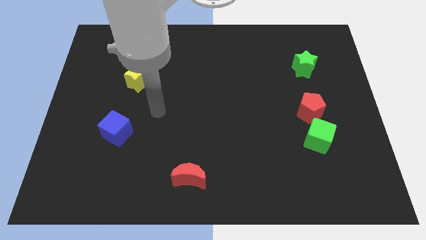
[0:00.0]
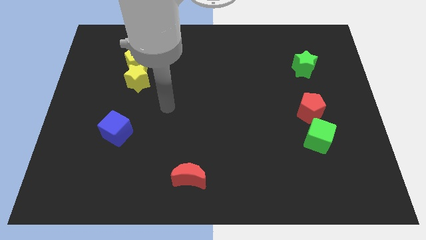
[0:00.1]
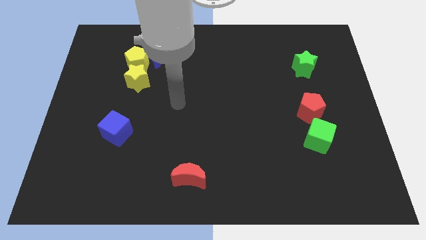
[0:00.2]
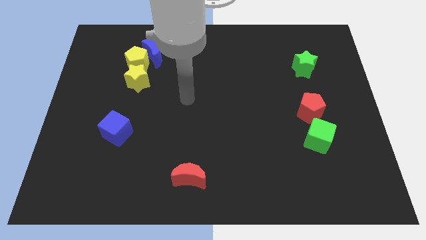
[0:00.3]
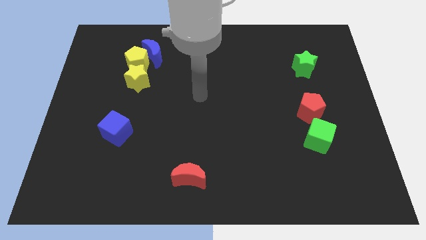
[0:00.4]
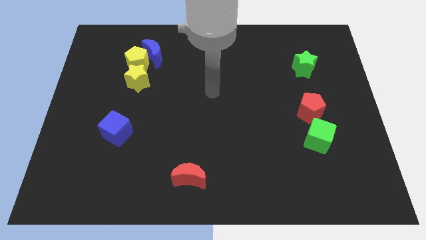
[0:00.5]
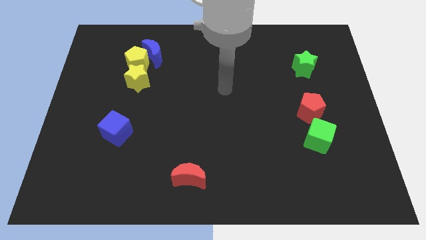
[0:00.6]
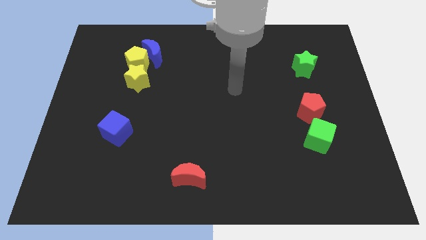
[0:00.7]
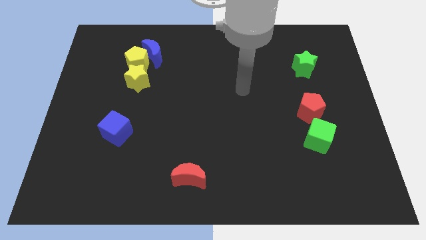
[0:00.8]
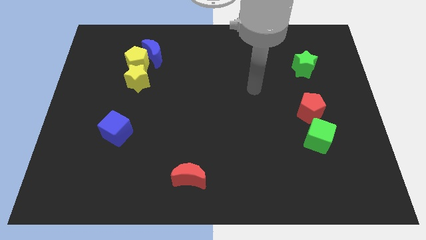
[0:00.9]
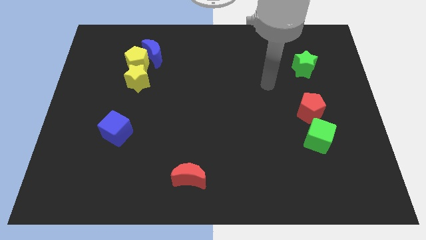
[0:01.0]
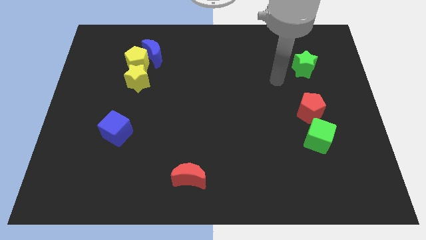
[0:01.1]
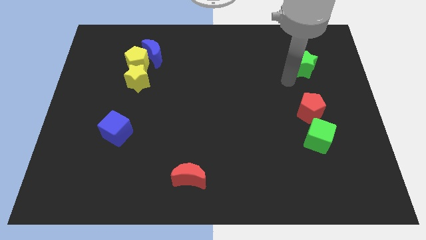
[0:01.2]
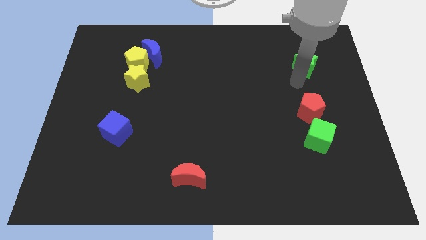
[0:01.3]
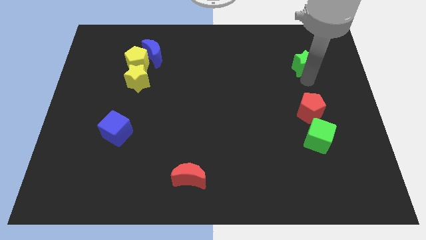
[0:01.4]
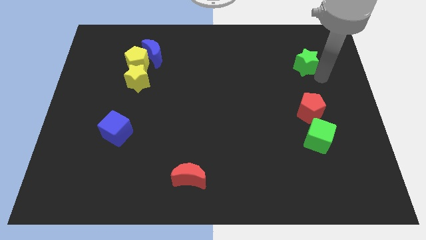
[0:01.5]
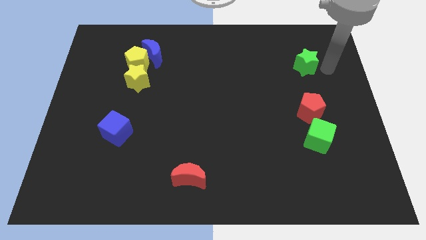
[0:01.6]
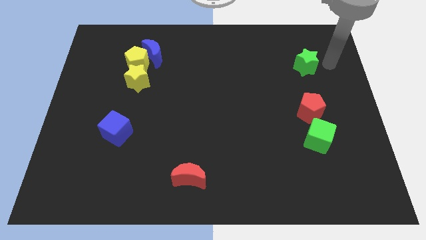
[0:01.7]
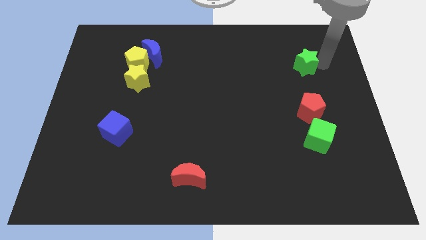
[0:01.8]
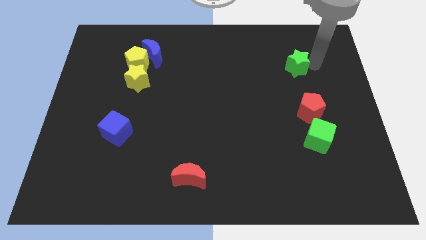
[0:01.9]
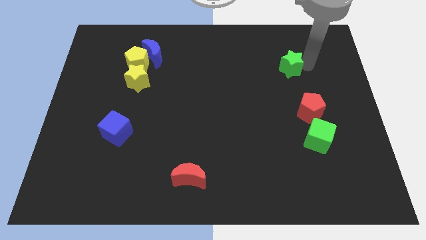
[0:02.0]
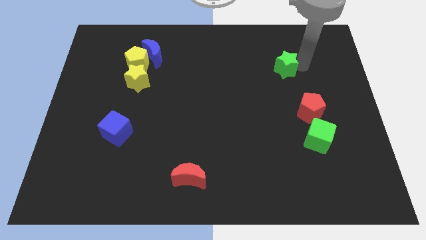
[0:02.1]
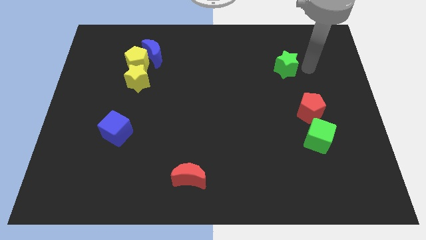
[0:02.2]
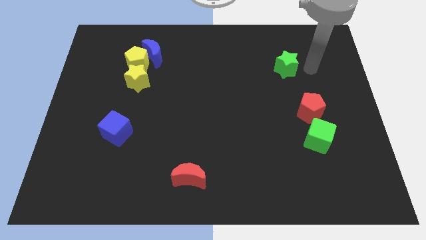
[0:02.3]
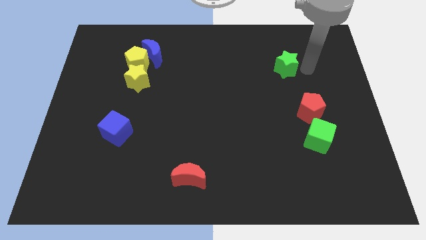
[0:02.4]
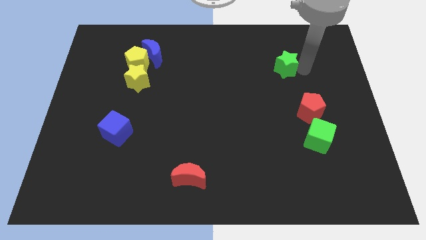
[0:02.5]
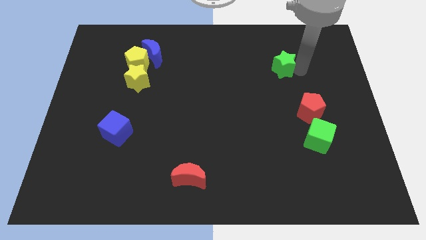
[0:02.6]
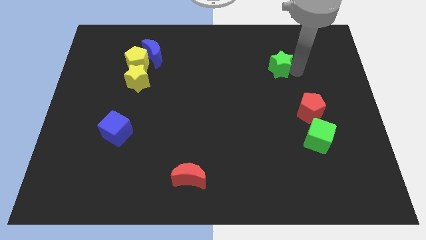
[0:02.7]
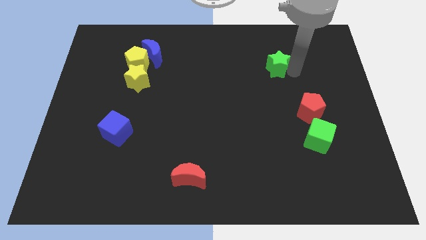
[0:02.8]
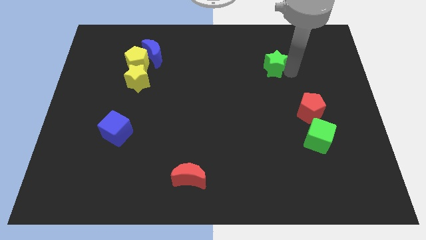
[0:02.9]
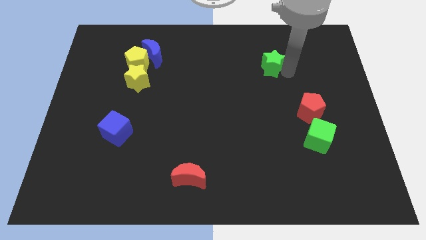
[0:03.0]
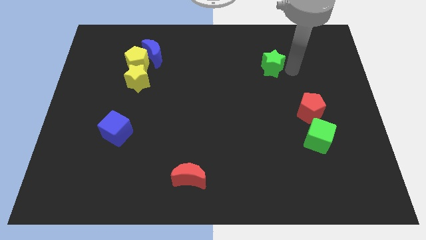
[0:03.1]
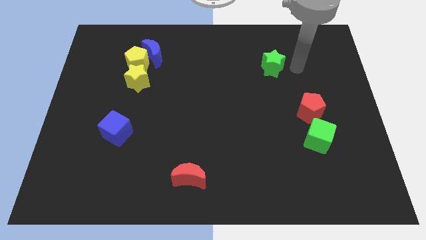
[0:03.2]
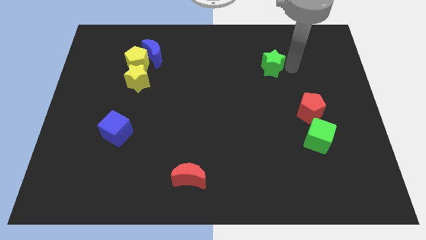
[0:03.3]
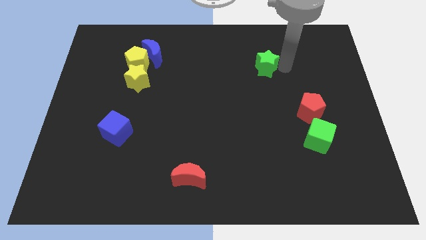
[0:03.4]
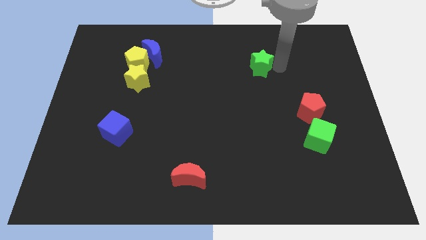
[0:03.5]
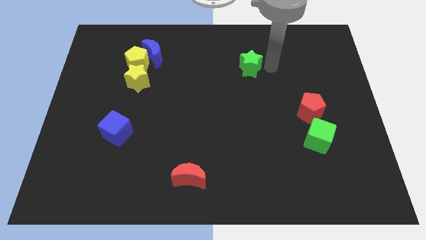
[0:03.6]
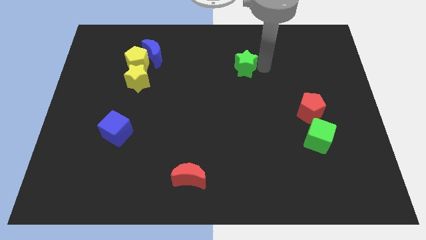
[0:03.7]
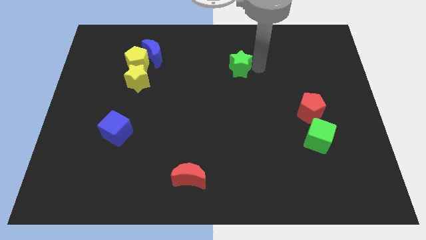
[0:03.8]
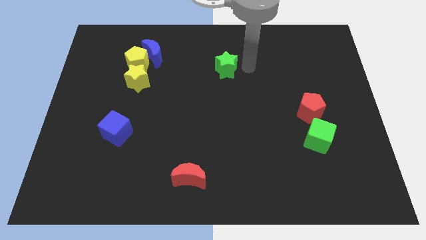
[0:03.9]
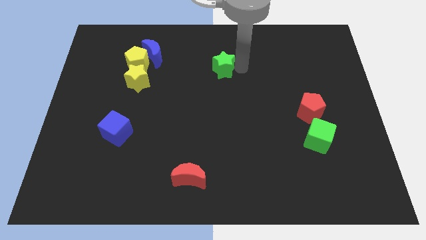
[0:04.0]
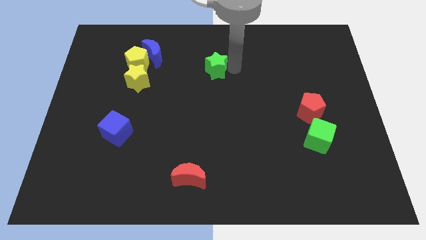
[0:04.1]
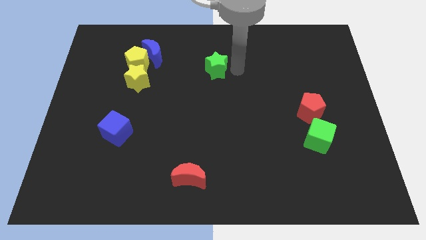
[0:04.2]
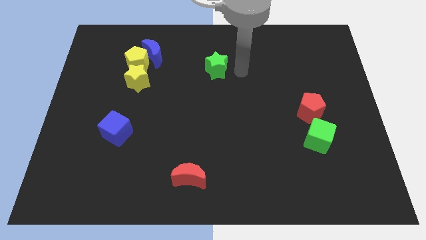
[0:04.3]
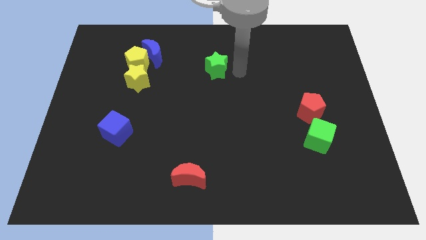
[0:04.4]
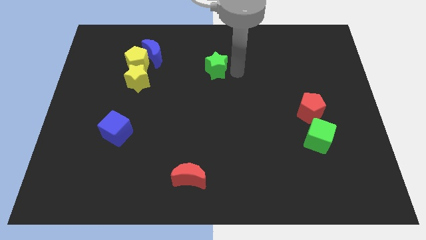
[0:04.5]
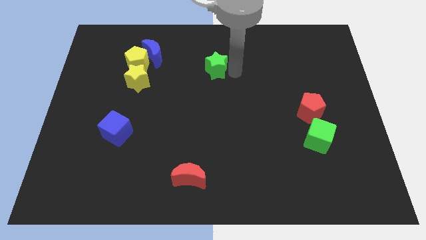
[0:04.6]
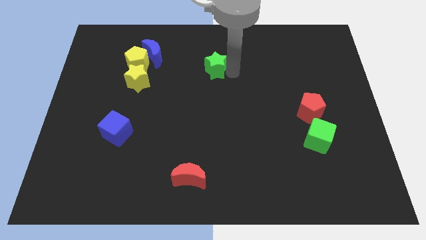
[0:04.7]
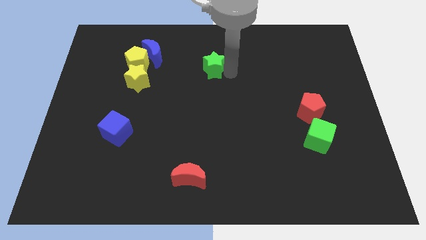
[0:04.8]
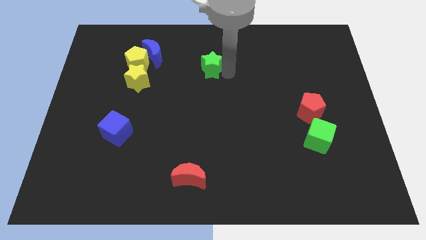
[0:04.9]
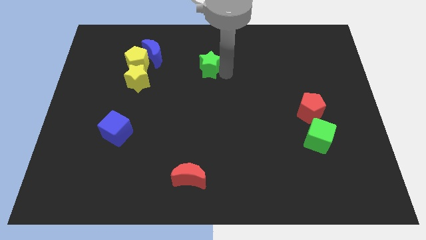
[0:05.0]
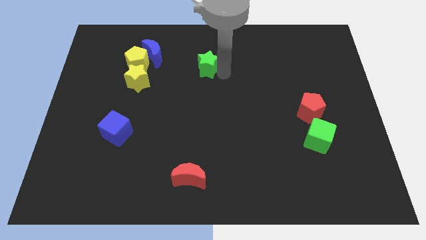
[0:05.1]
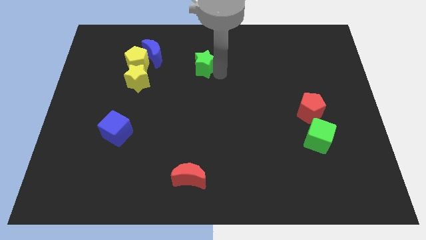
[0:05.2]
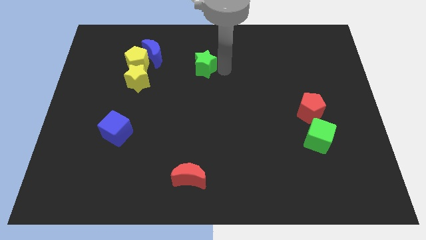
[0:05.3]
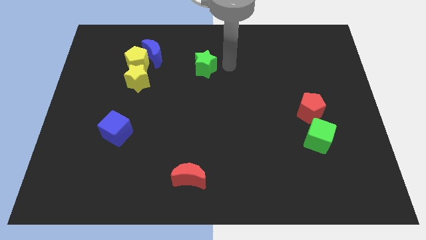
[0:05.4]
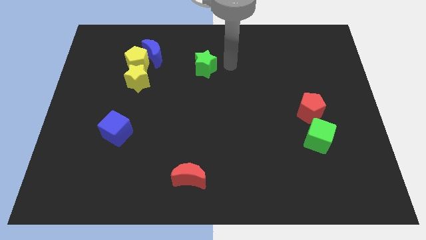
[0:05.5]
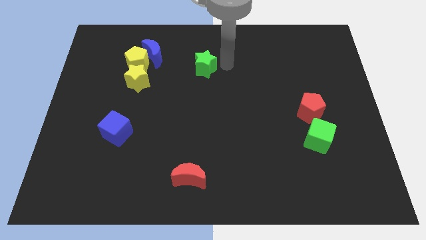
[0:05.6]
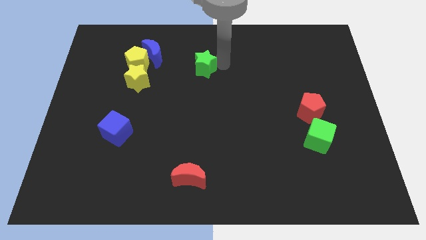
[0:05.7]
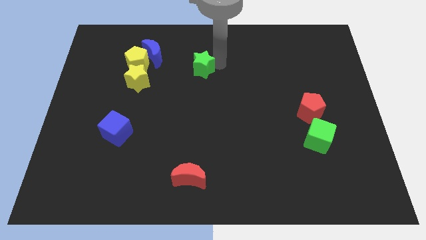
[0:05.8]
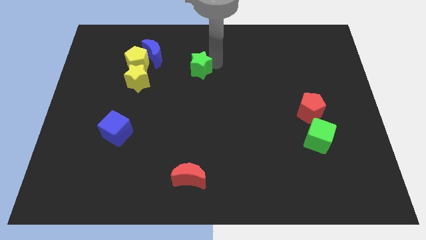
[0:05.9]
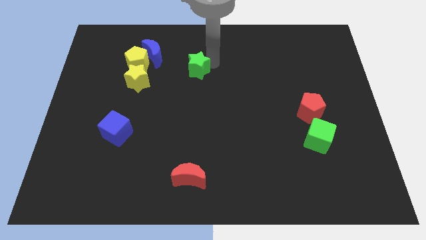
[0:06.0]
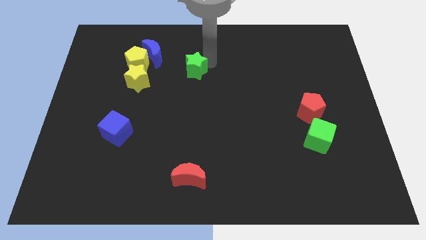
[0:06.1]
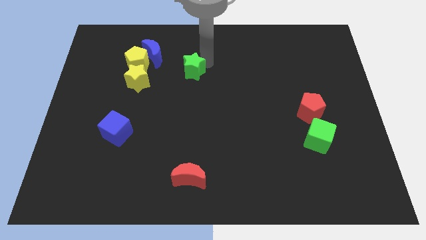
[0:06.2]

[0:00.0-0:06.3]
push the green star to the bottom right side of the blue moon

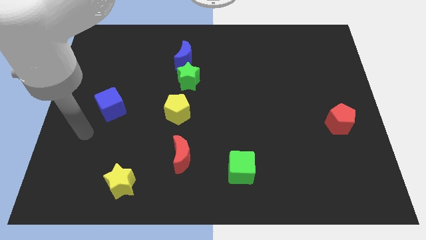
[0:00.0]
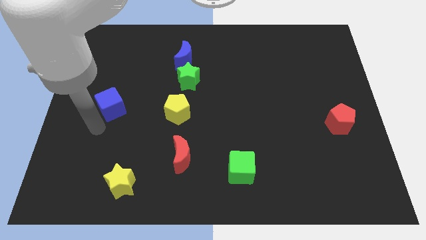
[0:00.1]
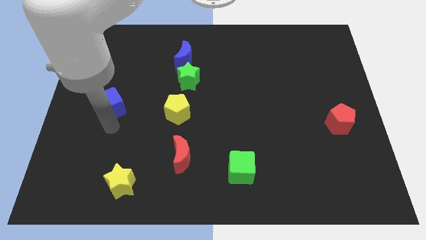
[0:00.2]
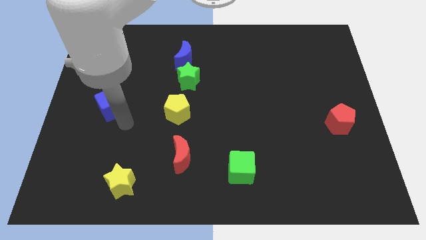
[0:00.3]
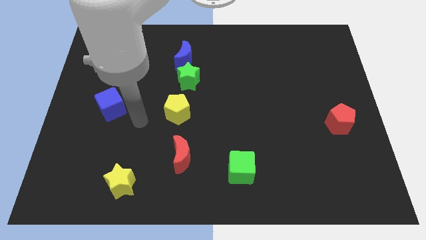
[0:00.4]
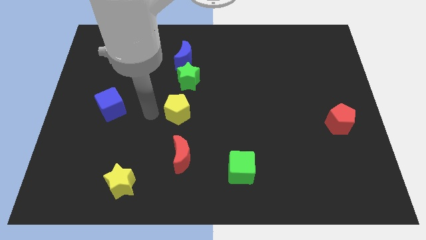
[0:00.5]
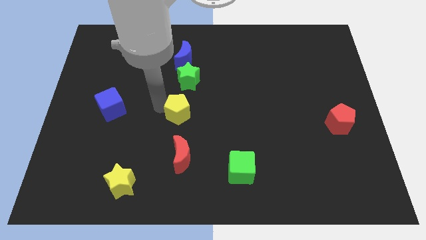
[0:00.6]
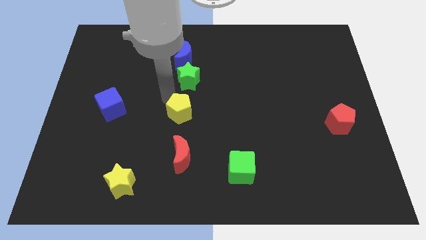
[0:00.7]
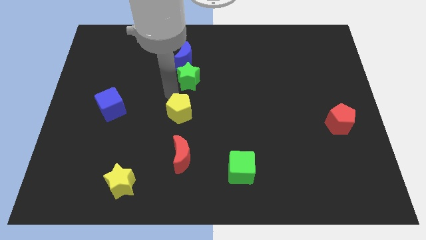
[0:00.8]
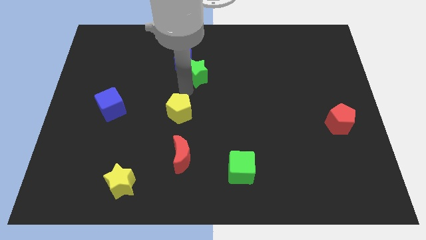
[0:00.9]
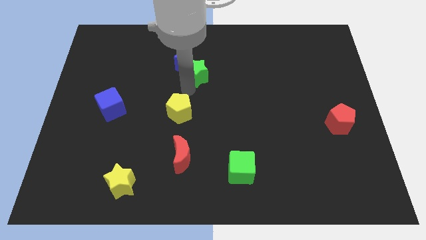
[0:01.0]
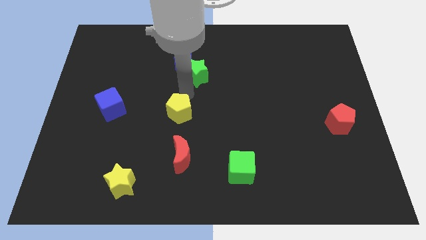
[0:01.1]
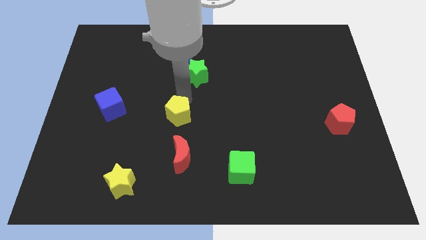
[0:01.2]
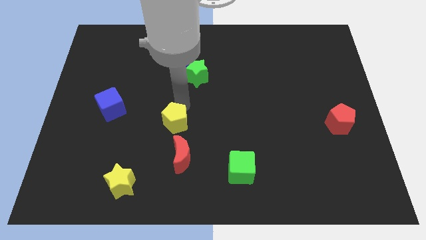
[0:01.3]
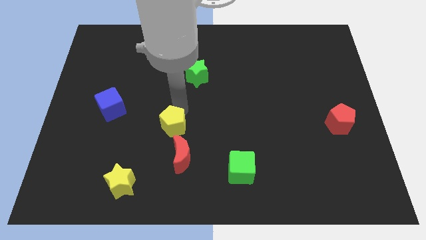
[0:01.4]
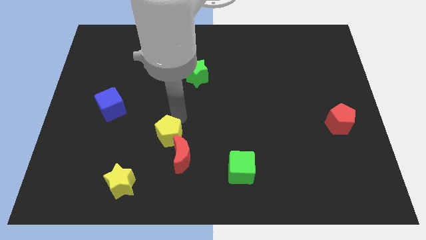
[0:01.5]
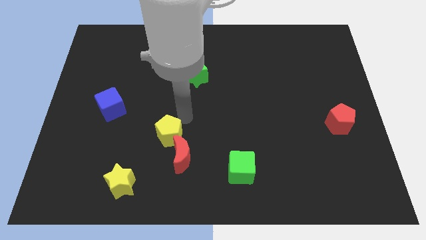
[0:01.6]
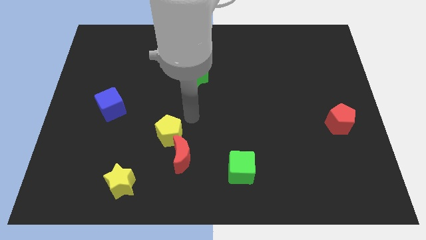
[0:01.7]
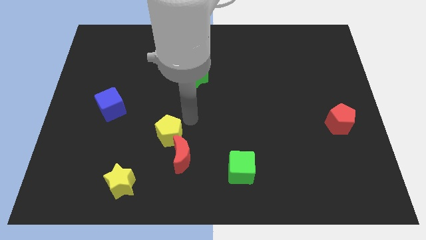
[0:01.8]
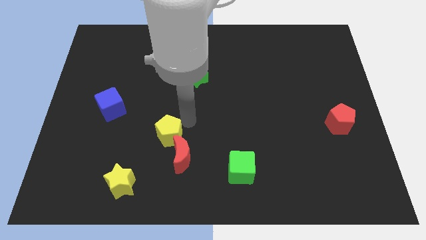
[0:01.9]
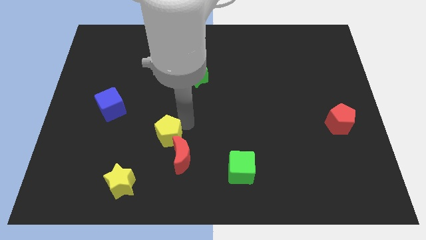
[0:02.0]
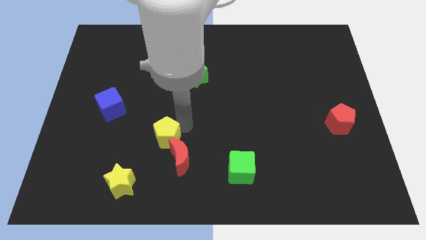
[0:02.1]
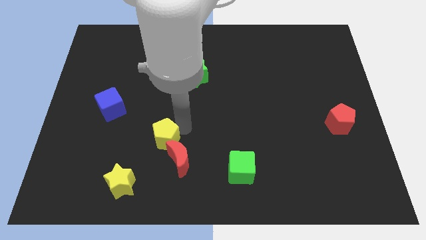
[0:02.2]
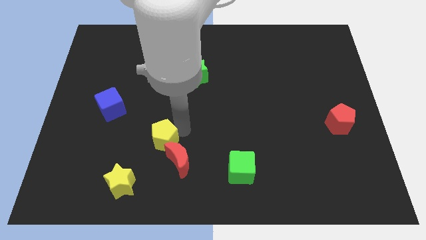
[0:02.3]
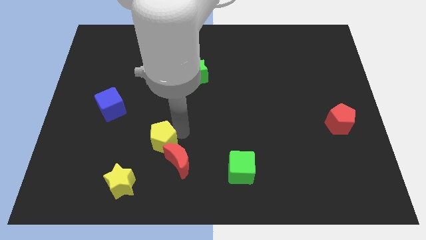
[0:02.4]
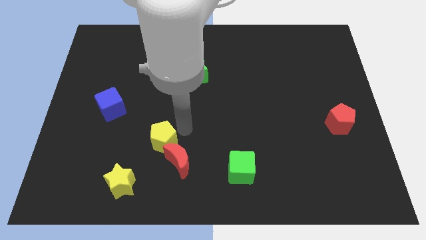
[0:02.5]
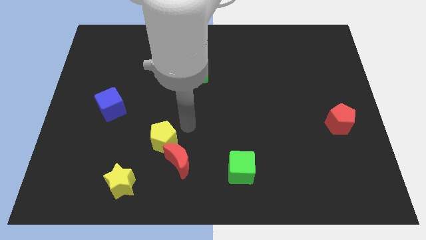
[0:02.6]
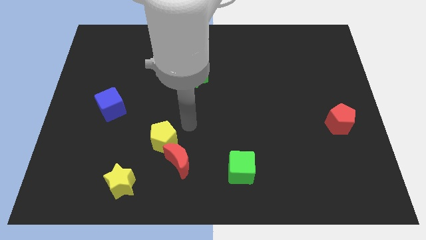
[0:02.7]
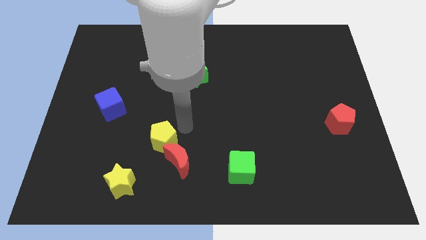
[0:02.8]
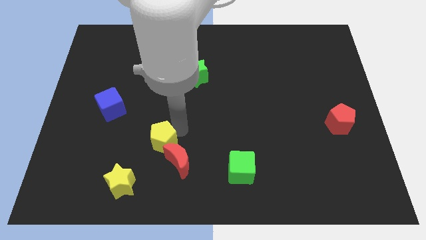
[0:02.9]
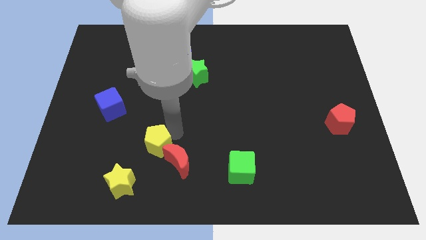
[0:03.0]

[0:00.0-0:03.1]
move the yellow pentagon just left of the red moon
